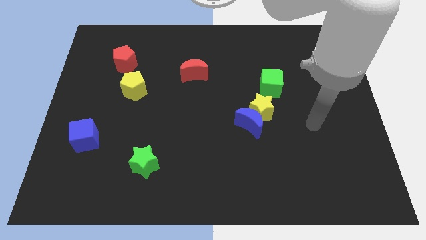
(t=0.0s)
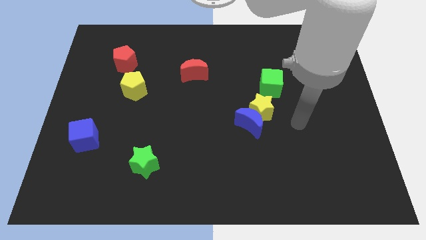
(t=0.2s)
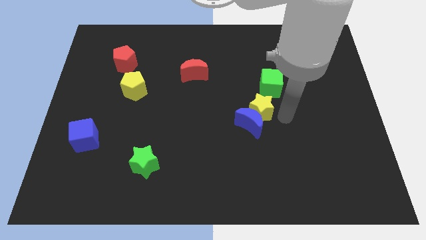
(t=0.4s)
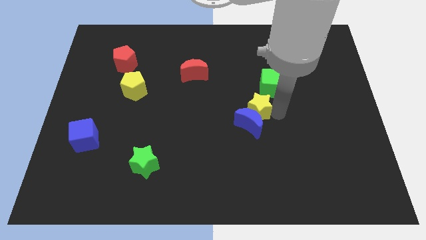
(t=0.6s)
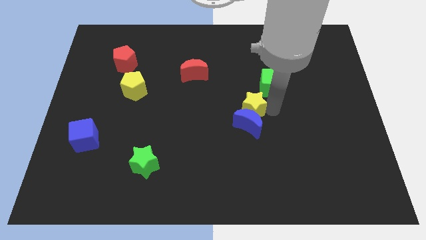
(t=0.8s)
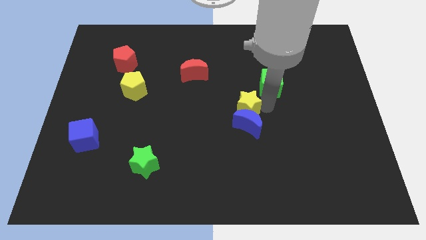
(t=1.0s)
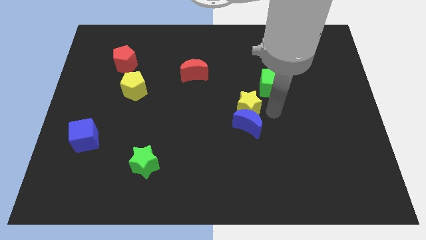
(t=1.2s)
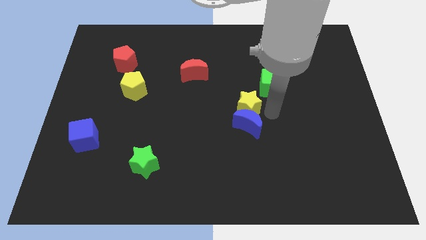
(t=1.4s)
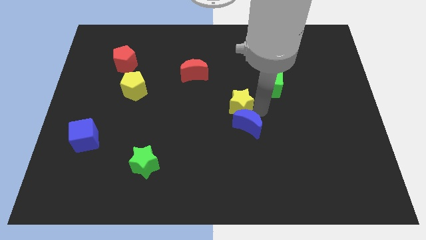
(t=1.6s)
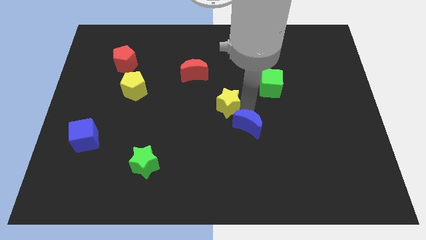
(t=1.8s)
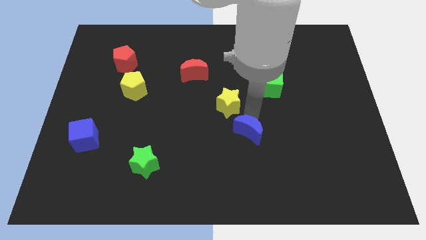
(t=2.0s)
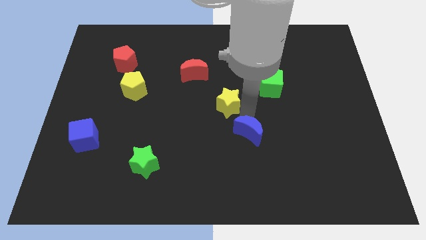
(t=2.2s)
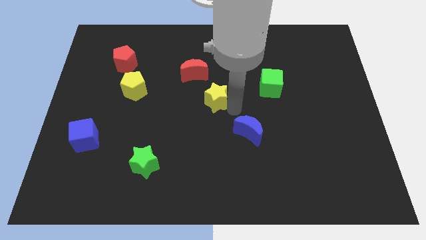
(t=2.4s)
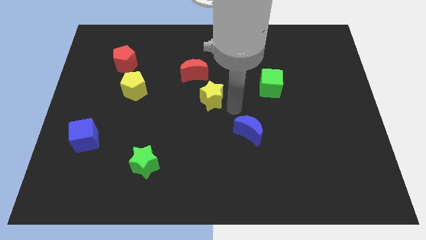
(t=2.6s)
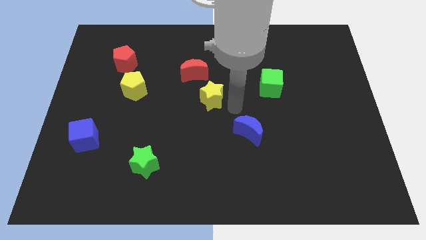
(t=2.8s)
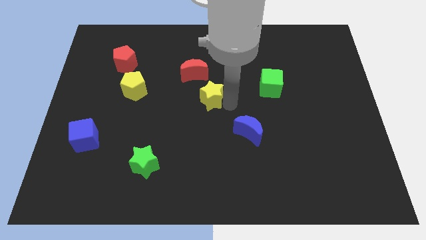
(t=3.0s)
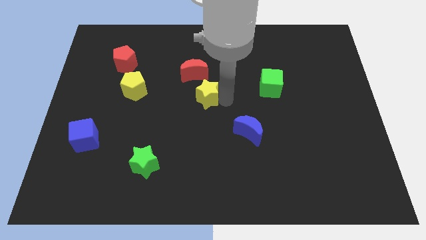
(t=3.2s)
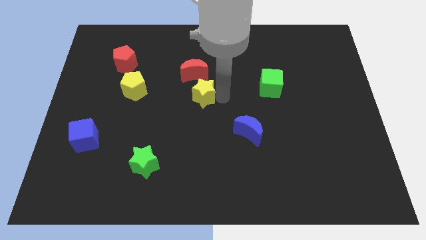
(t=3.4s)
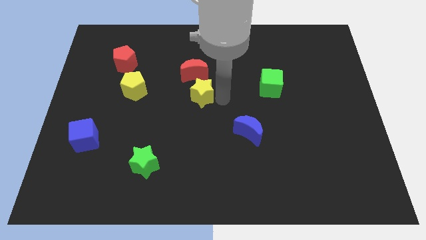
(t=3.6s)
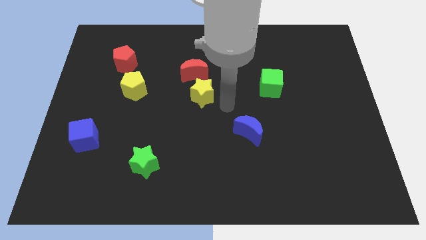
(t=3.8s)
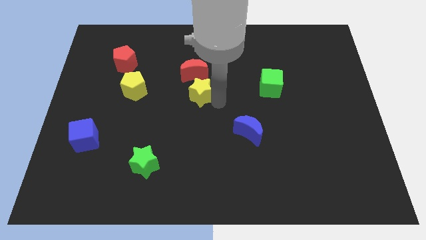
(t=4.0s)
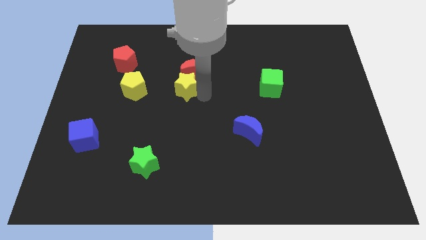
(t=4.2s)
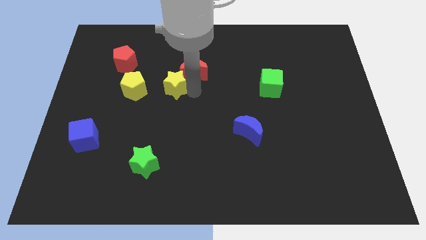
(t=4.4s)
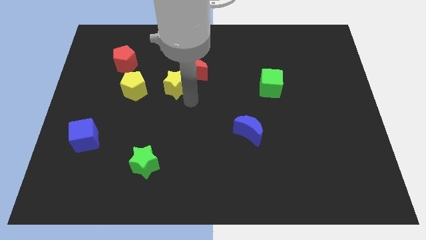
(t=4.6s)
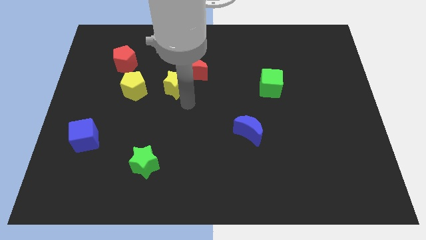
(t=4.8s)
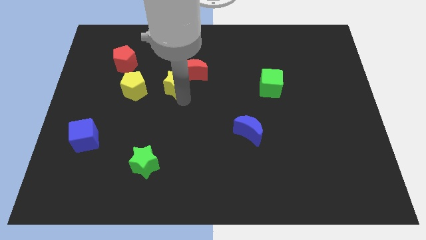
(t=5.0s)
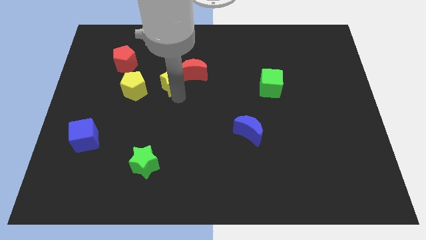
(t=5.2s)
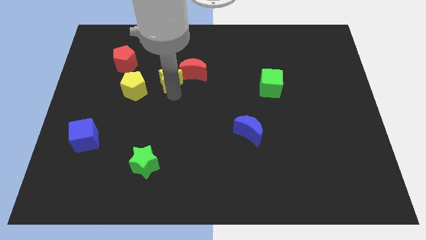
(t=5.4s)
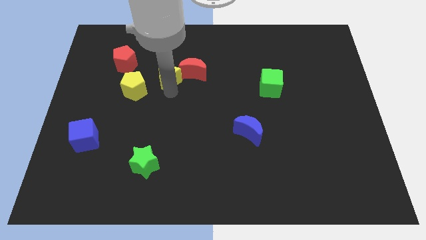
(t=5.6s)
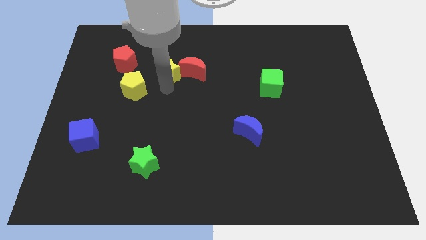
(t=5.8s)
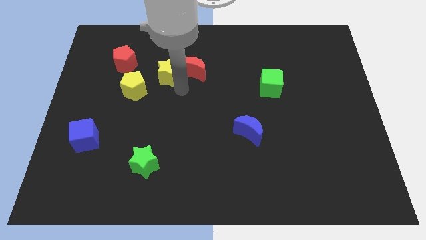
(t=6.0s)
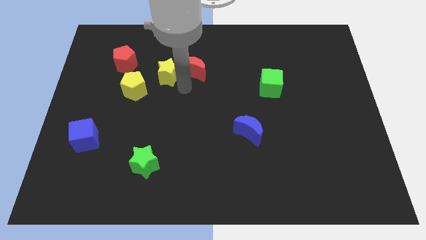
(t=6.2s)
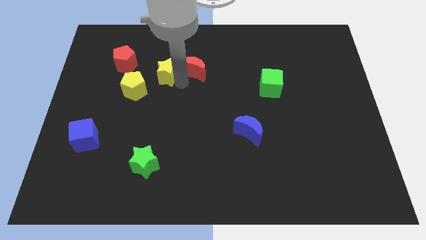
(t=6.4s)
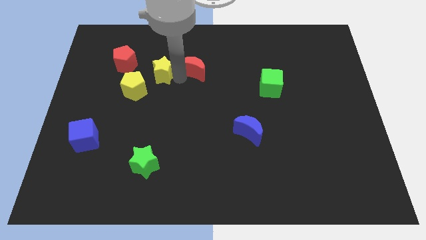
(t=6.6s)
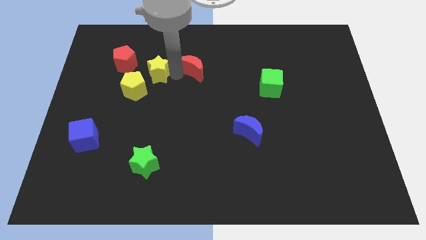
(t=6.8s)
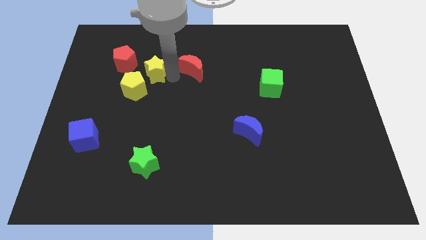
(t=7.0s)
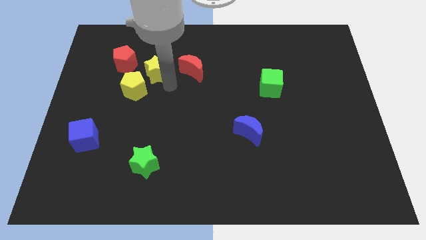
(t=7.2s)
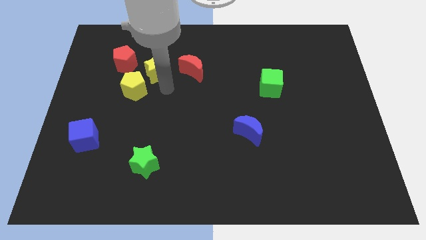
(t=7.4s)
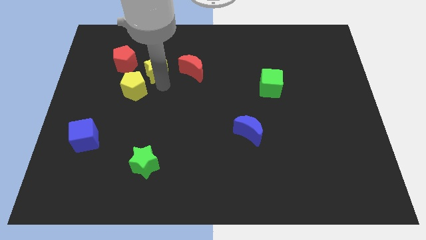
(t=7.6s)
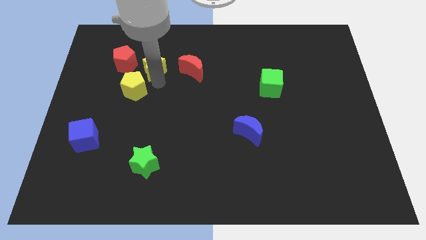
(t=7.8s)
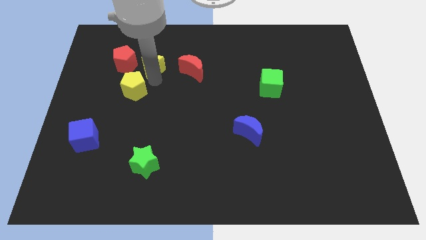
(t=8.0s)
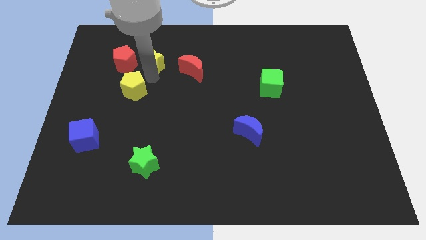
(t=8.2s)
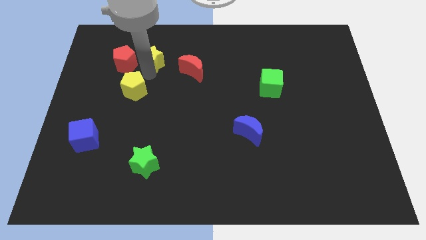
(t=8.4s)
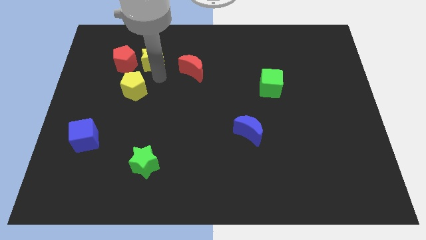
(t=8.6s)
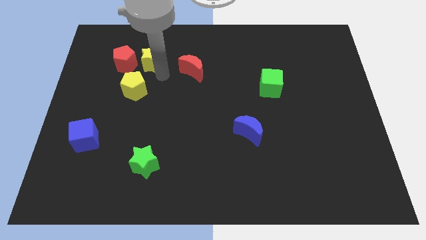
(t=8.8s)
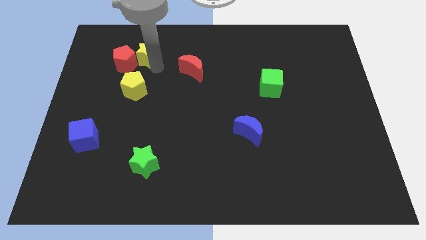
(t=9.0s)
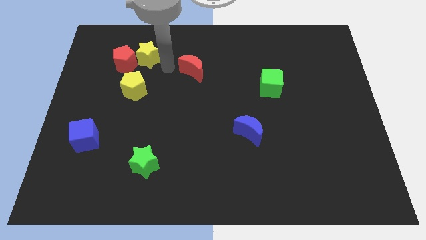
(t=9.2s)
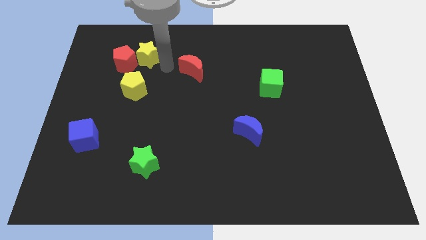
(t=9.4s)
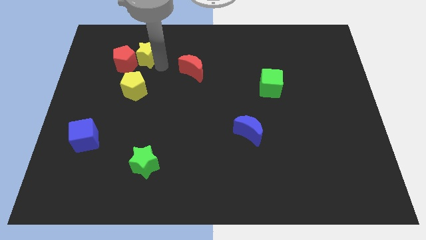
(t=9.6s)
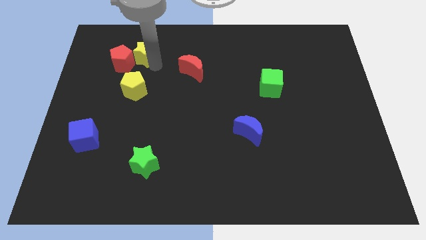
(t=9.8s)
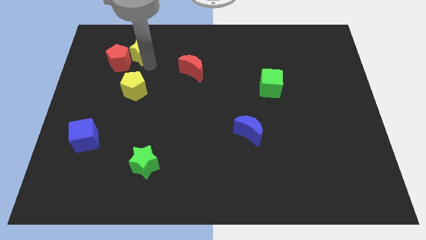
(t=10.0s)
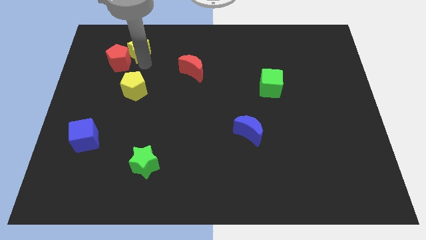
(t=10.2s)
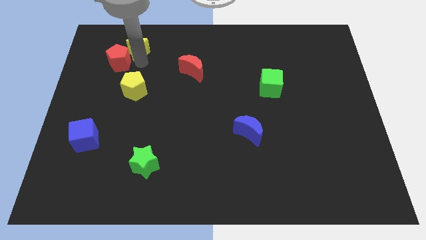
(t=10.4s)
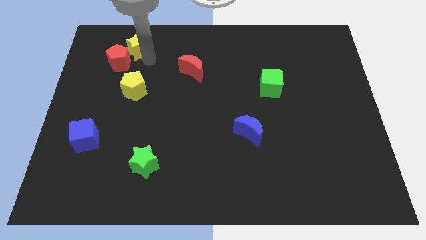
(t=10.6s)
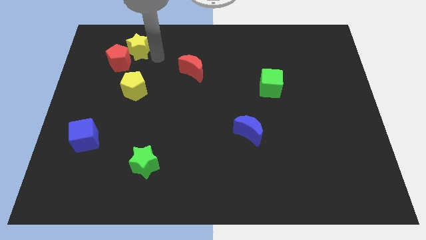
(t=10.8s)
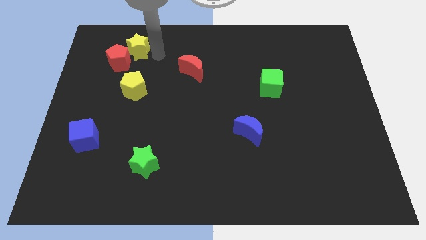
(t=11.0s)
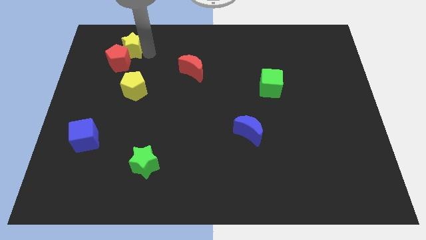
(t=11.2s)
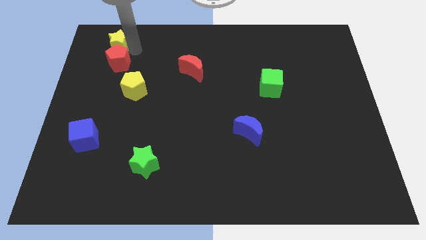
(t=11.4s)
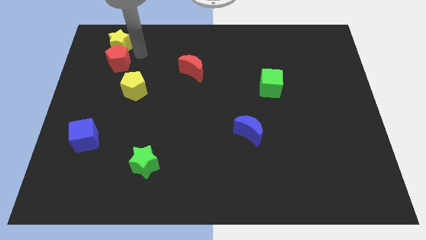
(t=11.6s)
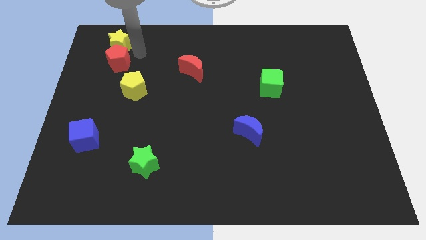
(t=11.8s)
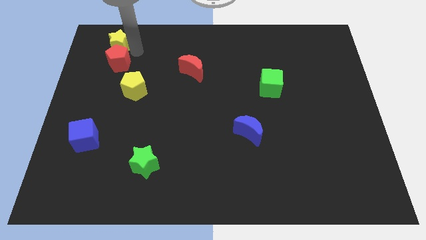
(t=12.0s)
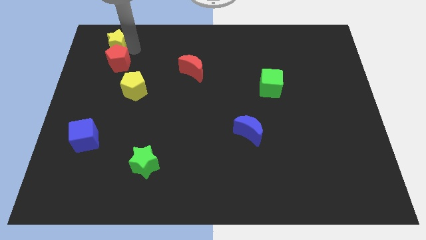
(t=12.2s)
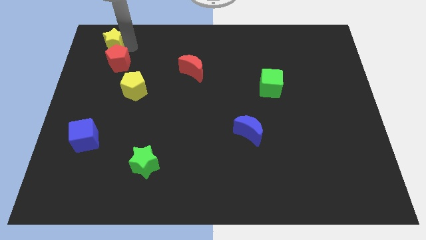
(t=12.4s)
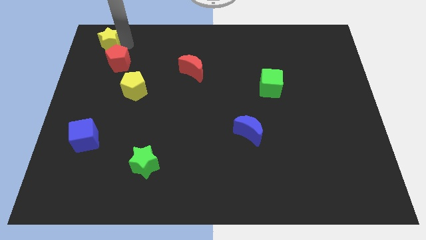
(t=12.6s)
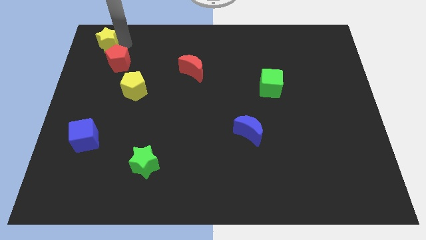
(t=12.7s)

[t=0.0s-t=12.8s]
push the yellow star to the top left
